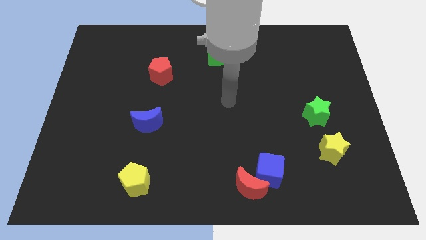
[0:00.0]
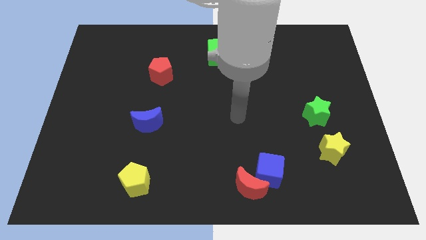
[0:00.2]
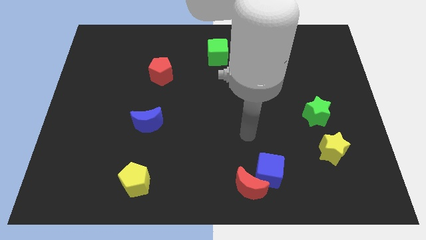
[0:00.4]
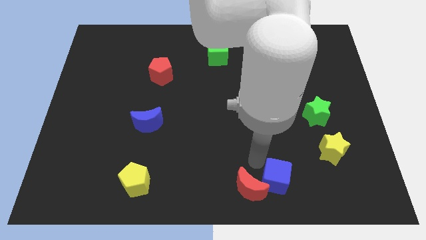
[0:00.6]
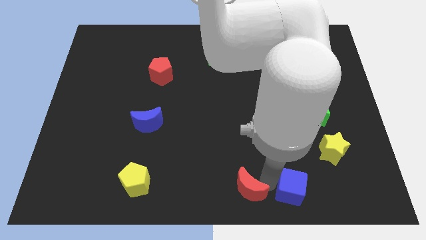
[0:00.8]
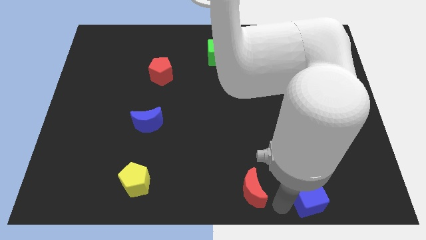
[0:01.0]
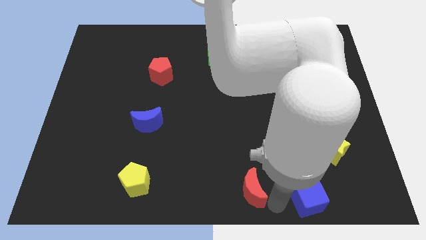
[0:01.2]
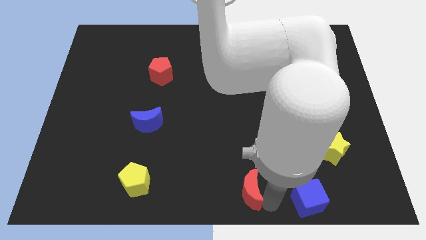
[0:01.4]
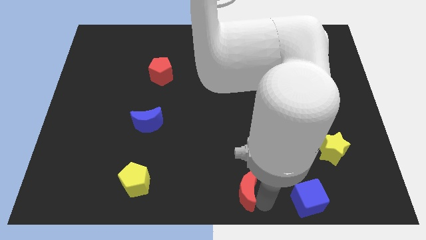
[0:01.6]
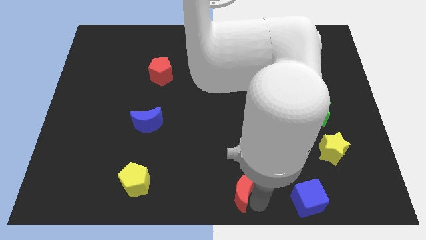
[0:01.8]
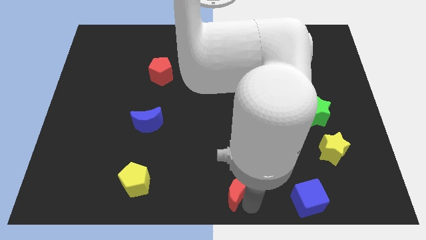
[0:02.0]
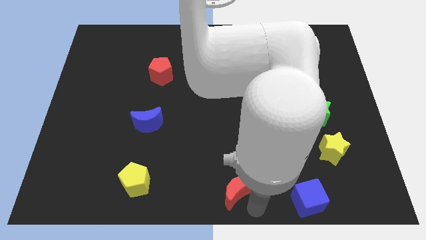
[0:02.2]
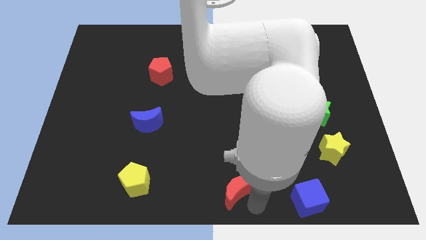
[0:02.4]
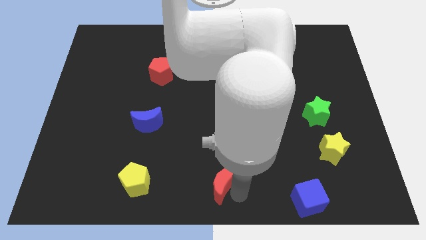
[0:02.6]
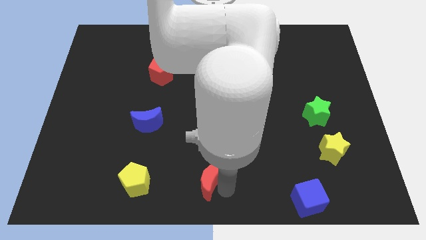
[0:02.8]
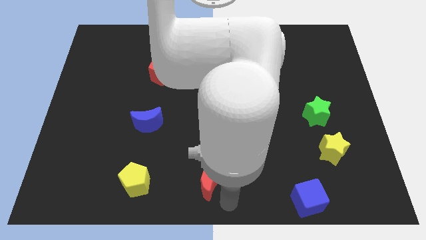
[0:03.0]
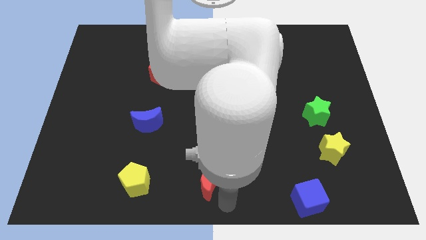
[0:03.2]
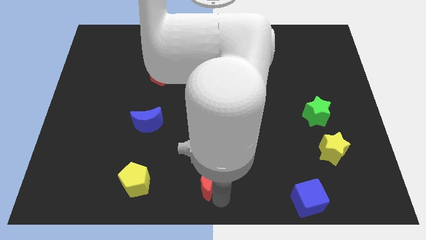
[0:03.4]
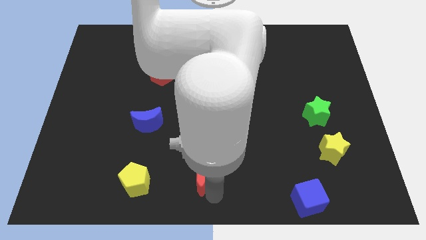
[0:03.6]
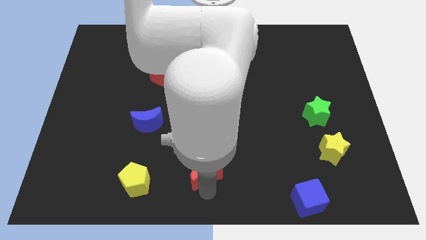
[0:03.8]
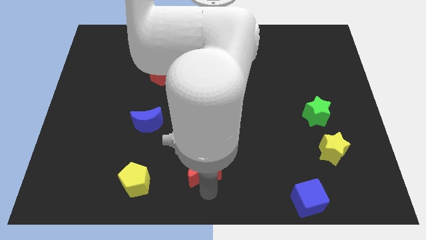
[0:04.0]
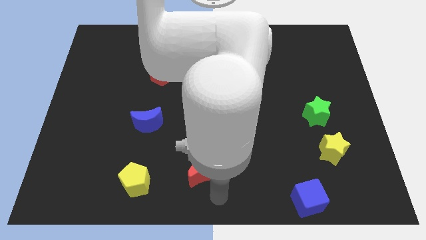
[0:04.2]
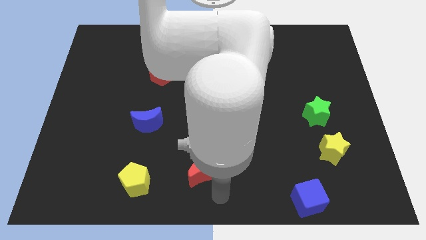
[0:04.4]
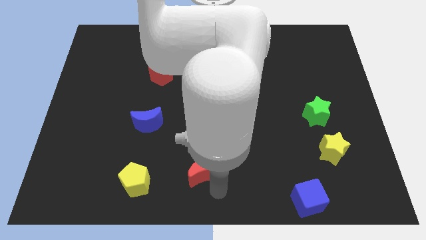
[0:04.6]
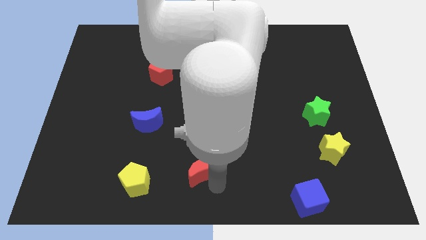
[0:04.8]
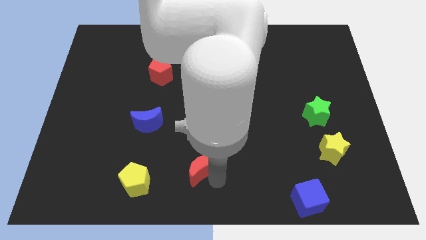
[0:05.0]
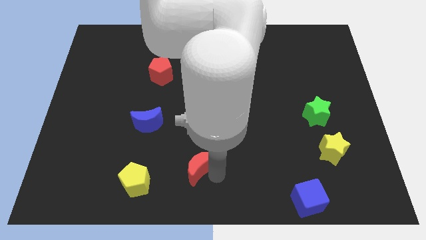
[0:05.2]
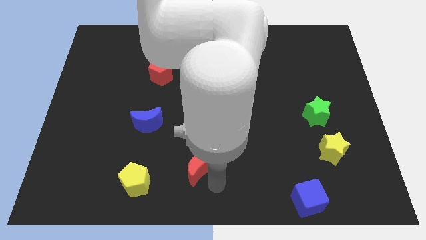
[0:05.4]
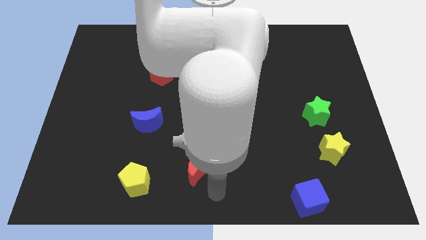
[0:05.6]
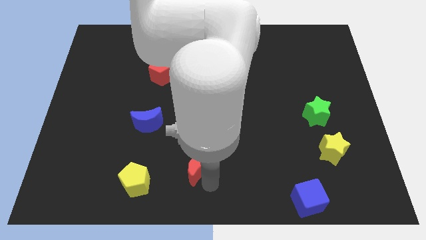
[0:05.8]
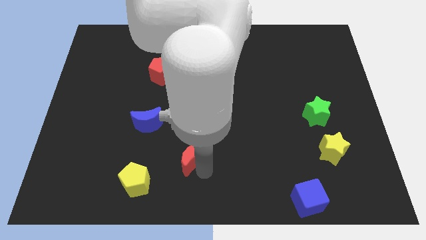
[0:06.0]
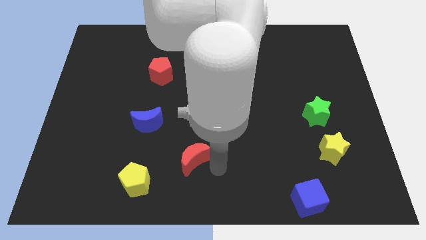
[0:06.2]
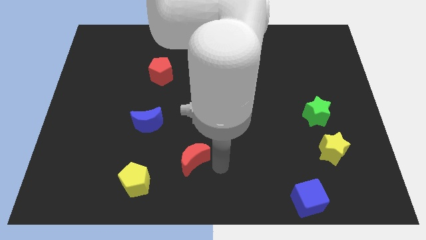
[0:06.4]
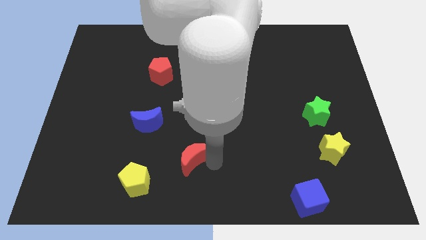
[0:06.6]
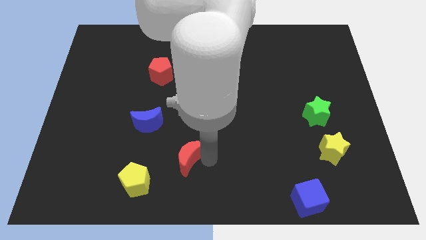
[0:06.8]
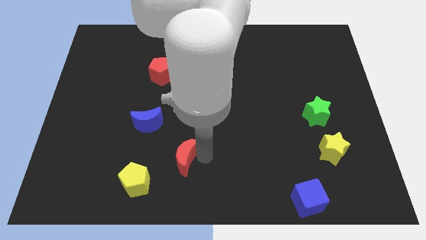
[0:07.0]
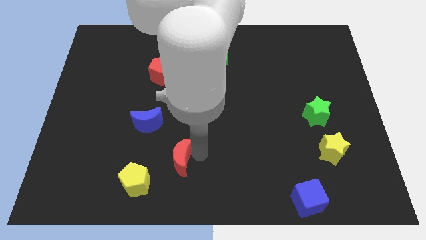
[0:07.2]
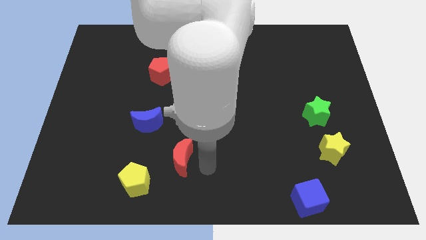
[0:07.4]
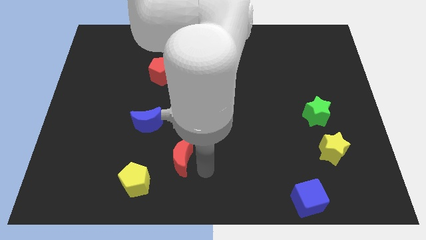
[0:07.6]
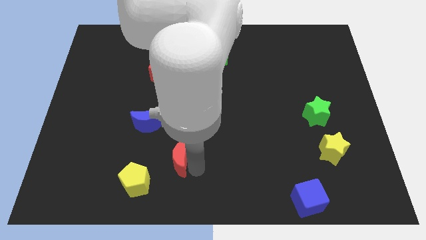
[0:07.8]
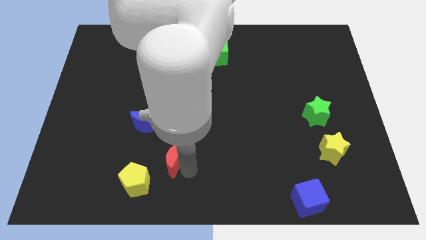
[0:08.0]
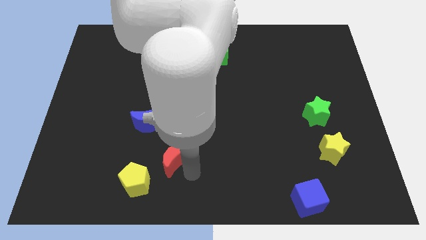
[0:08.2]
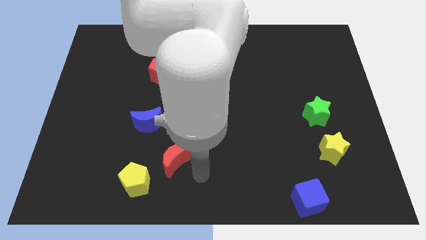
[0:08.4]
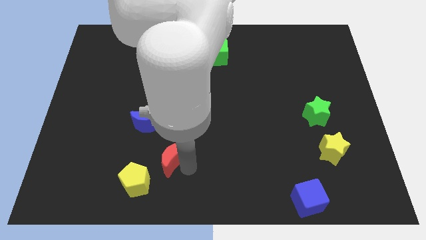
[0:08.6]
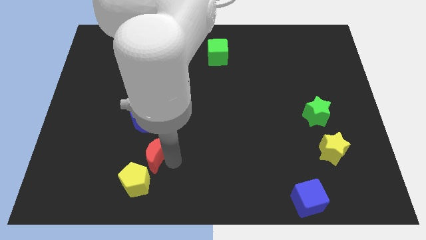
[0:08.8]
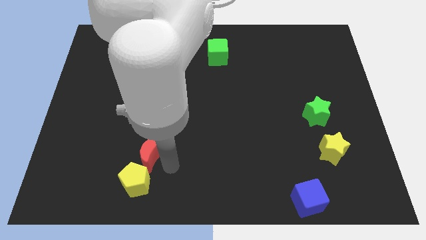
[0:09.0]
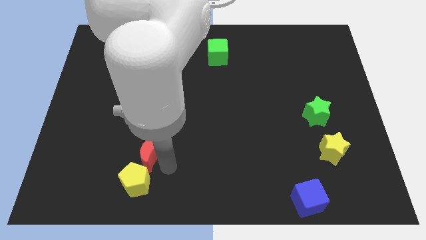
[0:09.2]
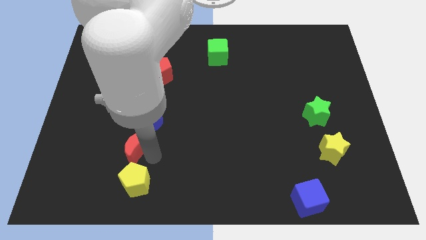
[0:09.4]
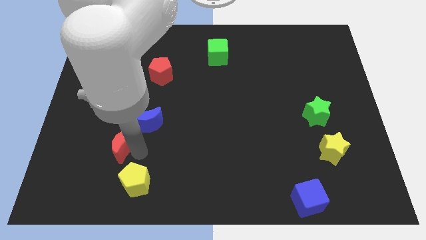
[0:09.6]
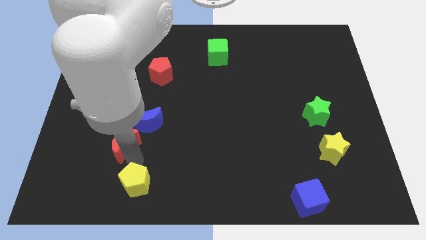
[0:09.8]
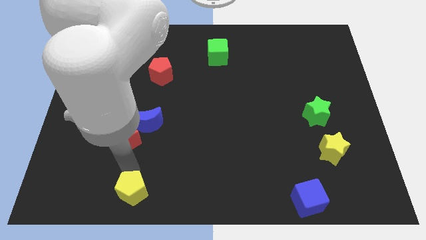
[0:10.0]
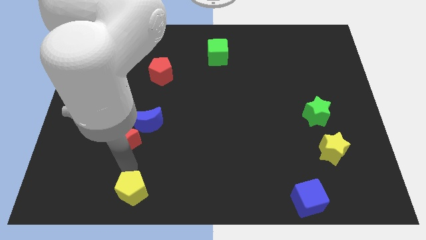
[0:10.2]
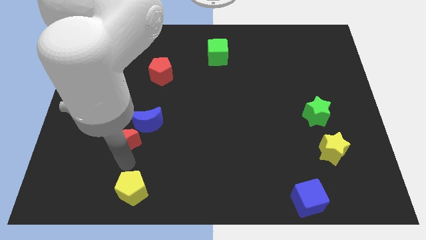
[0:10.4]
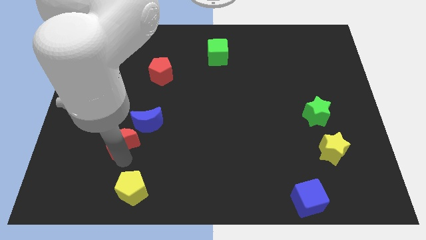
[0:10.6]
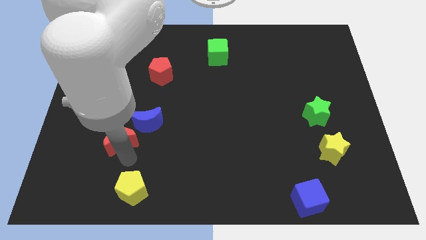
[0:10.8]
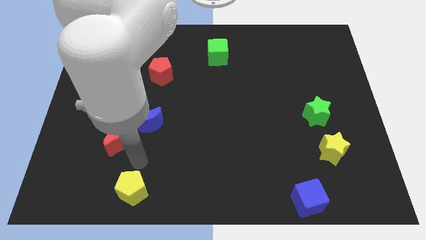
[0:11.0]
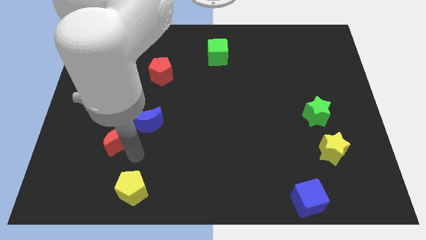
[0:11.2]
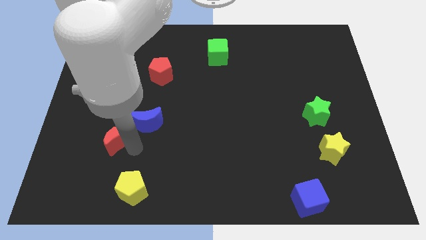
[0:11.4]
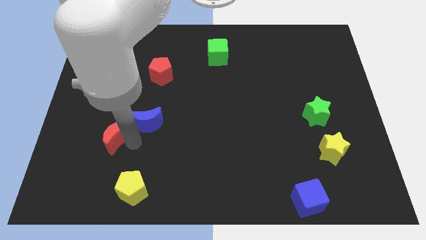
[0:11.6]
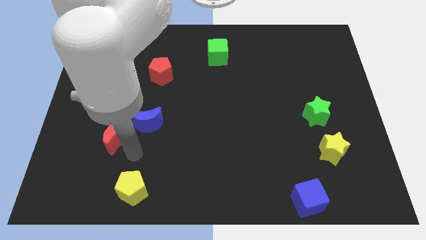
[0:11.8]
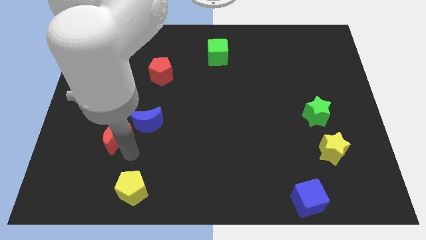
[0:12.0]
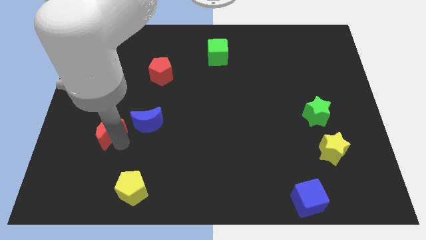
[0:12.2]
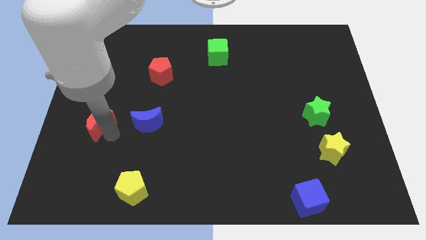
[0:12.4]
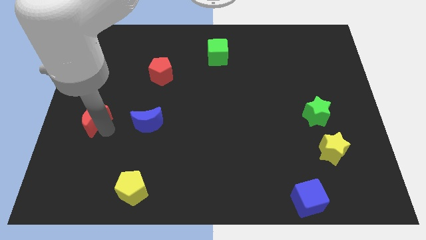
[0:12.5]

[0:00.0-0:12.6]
move the red moon to the left side
